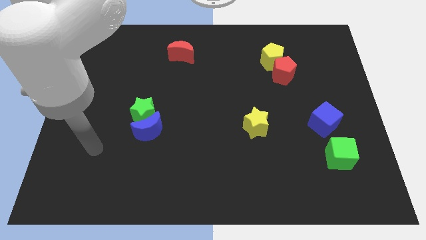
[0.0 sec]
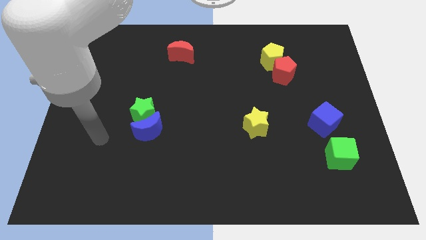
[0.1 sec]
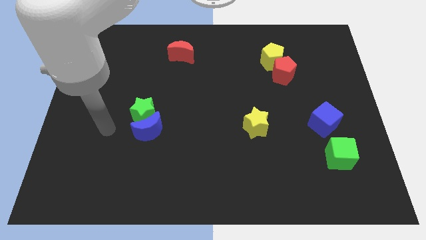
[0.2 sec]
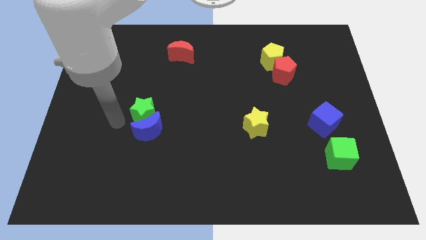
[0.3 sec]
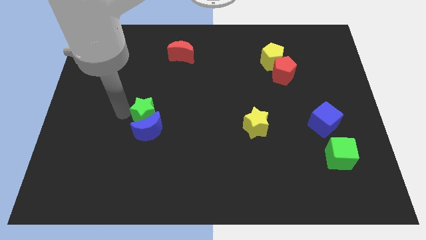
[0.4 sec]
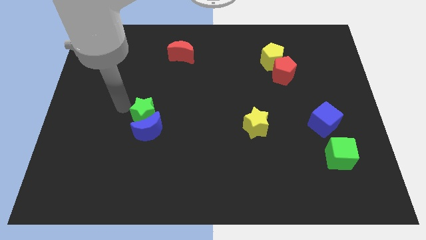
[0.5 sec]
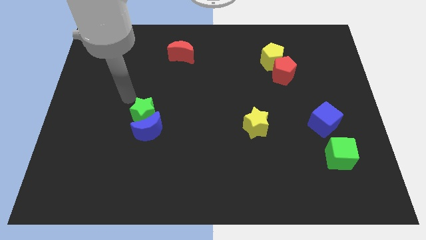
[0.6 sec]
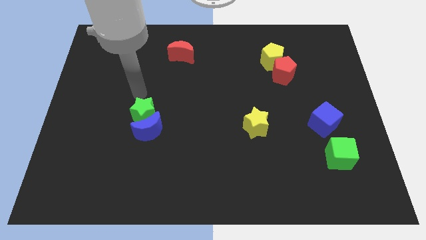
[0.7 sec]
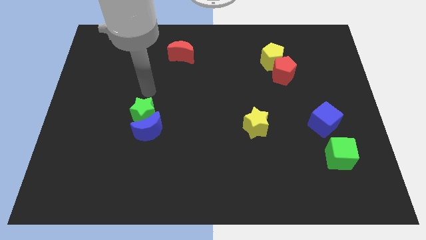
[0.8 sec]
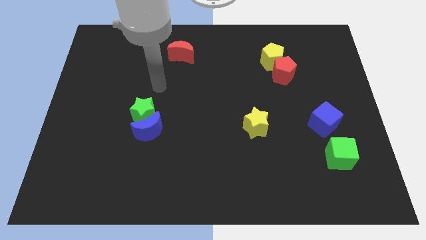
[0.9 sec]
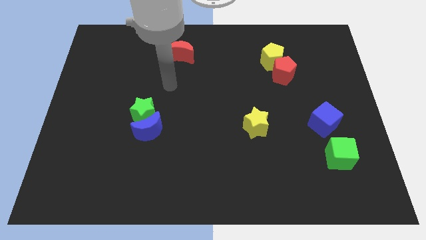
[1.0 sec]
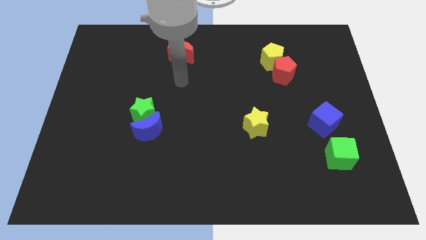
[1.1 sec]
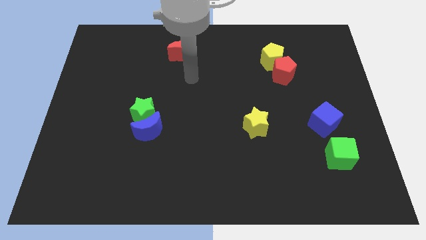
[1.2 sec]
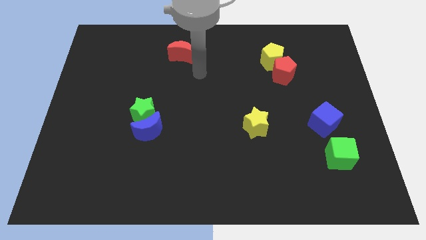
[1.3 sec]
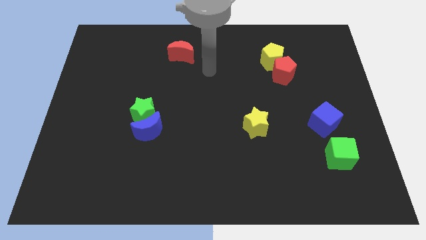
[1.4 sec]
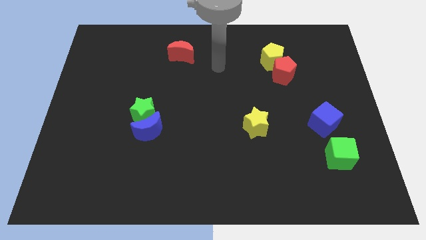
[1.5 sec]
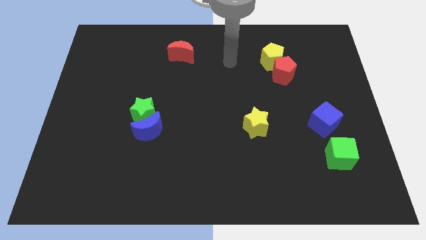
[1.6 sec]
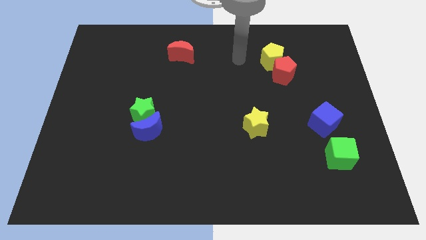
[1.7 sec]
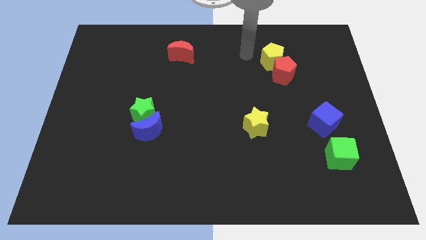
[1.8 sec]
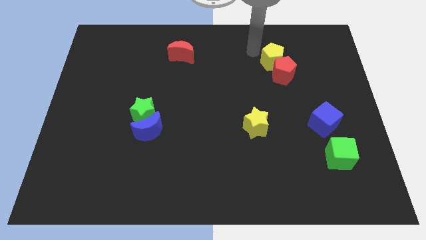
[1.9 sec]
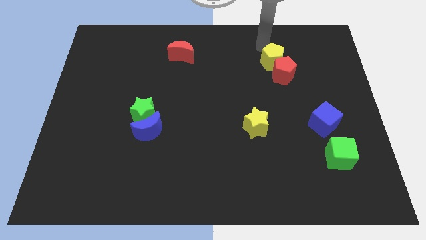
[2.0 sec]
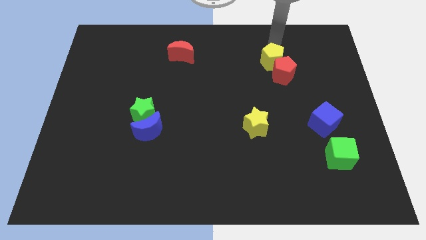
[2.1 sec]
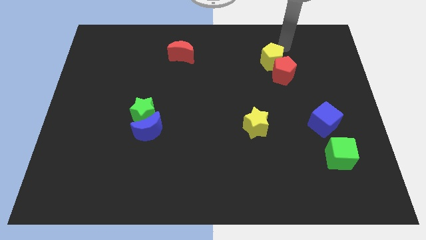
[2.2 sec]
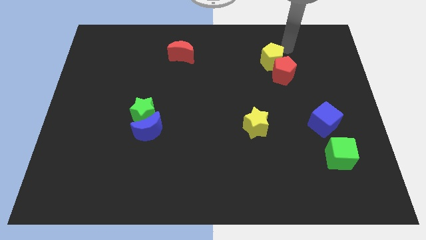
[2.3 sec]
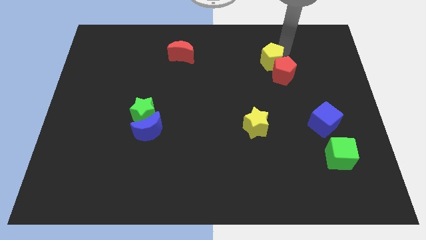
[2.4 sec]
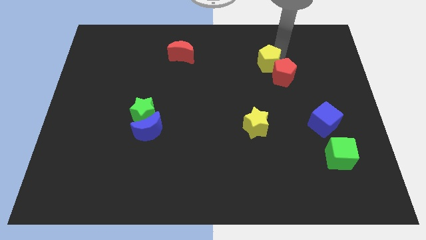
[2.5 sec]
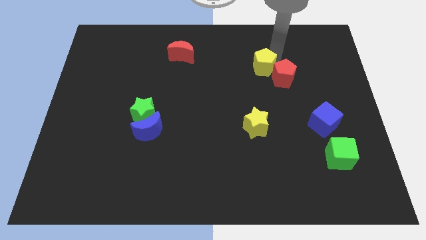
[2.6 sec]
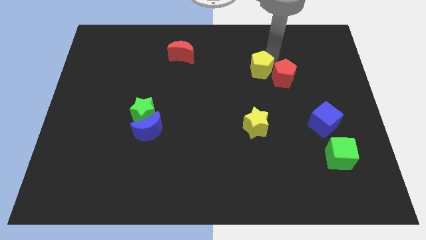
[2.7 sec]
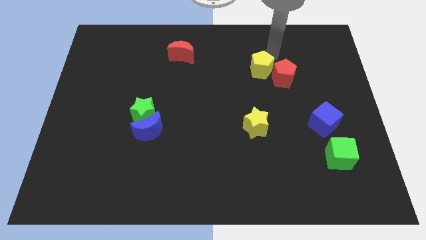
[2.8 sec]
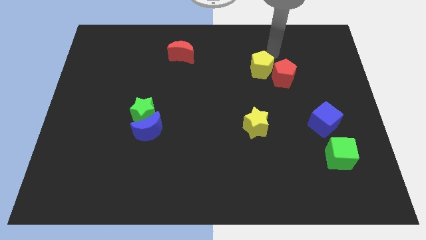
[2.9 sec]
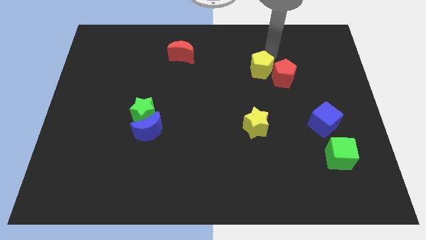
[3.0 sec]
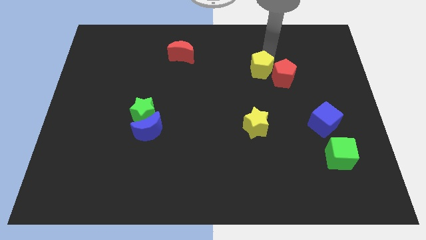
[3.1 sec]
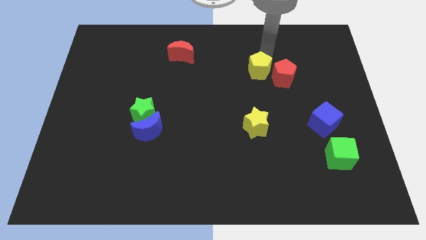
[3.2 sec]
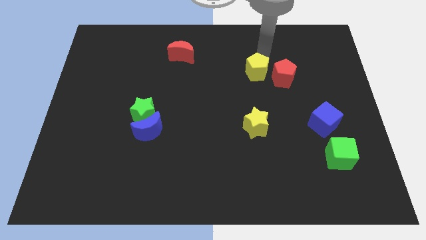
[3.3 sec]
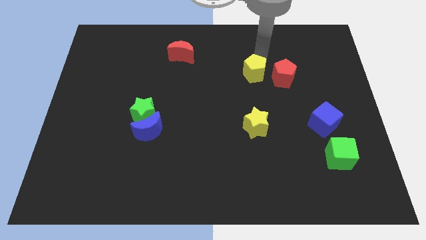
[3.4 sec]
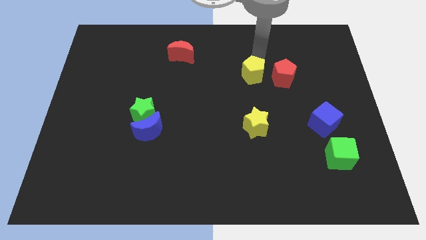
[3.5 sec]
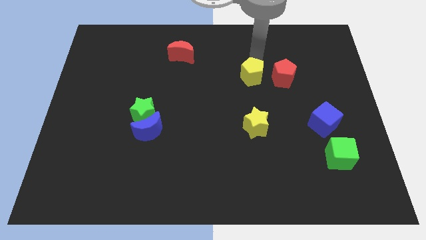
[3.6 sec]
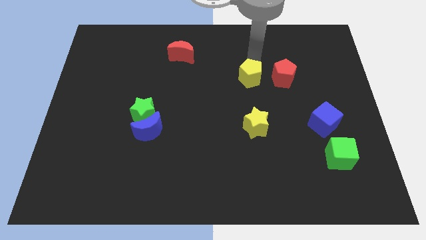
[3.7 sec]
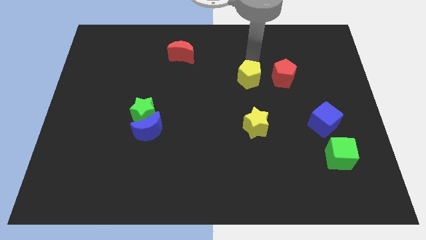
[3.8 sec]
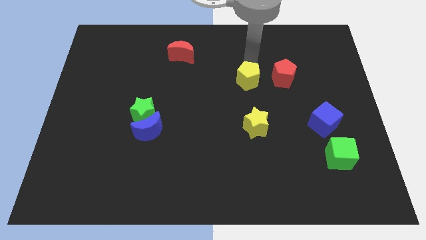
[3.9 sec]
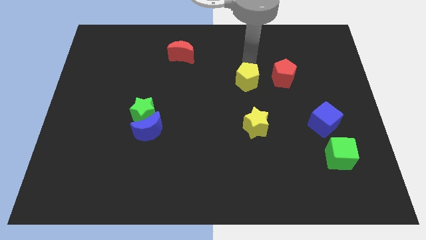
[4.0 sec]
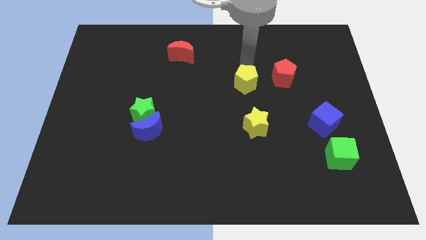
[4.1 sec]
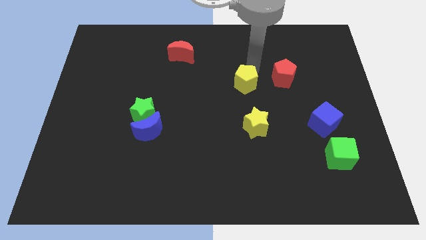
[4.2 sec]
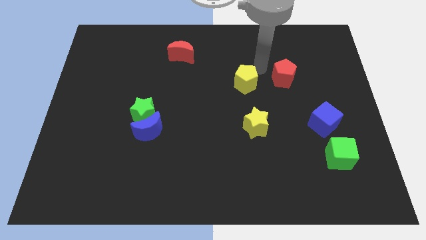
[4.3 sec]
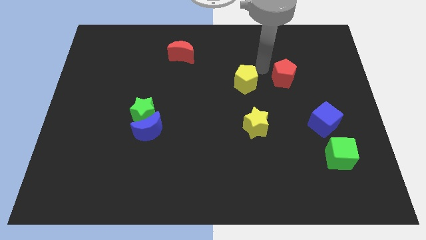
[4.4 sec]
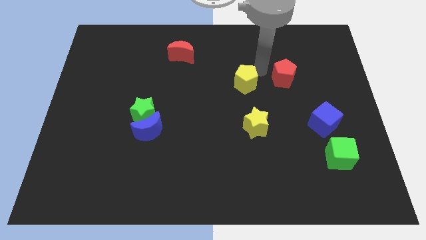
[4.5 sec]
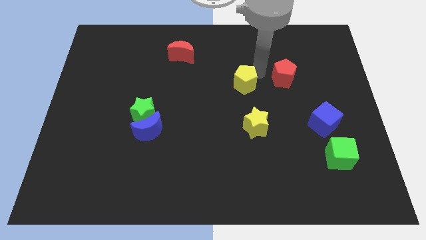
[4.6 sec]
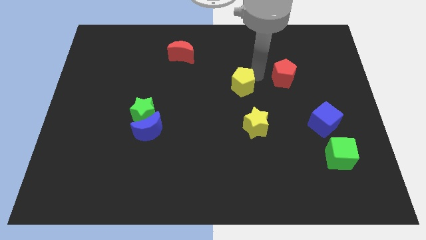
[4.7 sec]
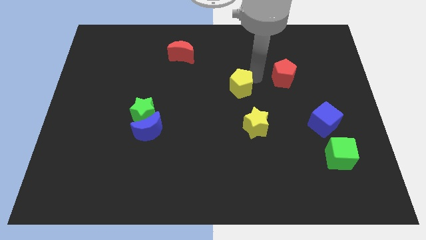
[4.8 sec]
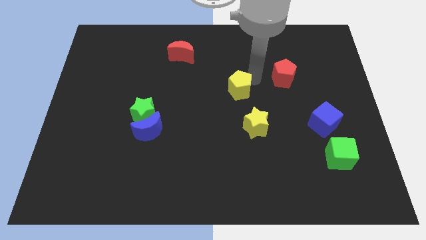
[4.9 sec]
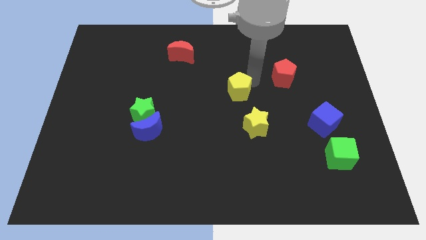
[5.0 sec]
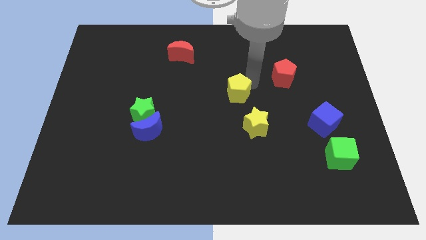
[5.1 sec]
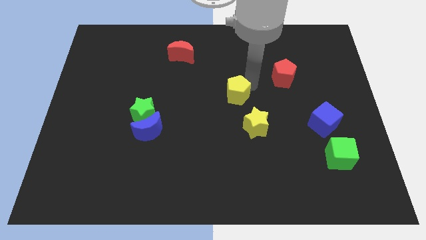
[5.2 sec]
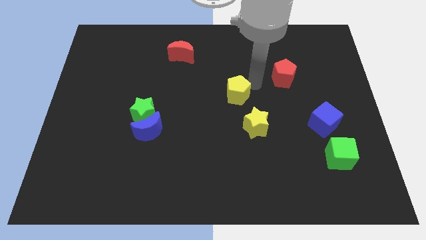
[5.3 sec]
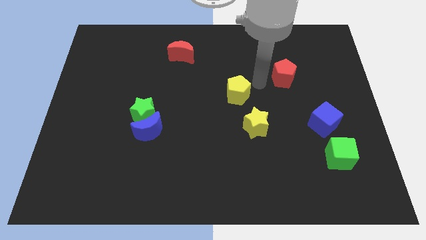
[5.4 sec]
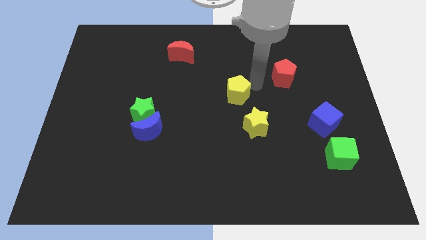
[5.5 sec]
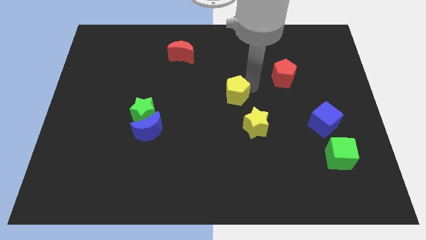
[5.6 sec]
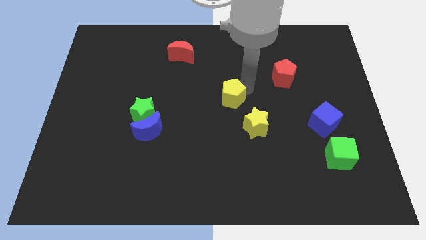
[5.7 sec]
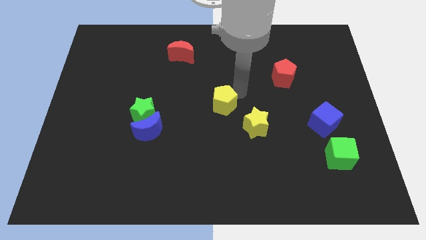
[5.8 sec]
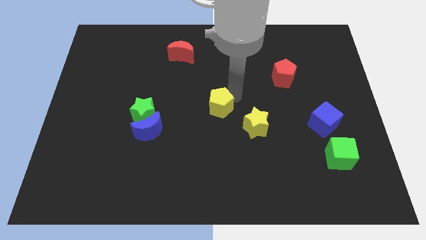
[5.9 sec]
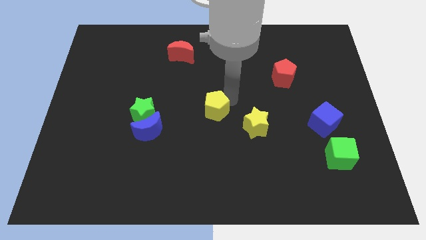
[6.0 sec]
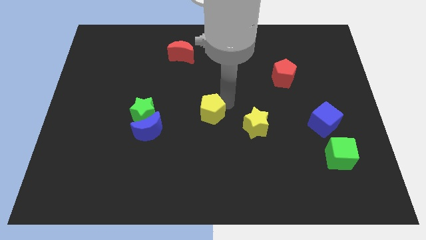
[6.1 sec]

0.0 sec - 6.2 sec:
put the yellow pentagon to the right side of the green star
